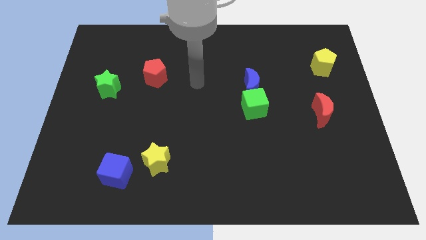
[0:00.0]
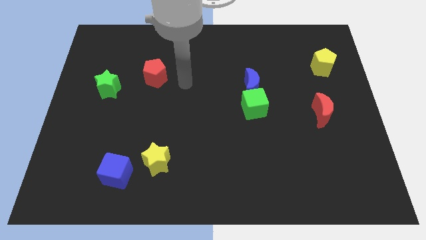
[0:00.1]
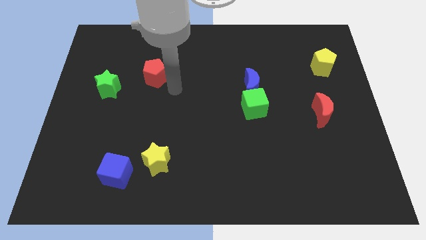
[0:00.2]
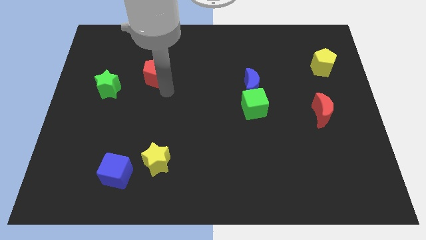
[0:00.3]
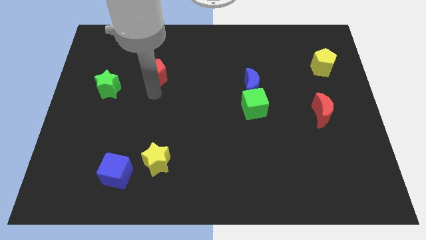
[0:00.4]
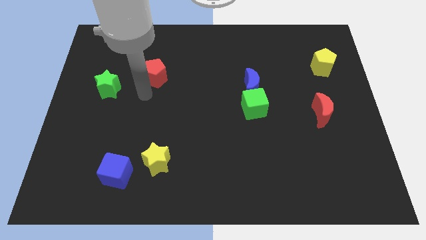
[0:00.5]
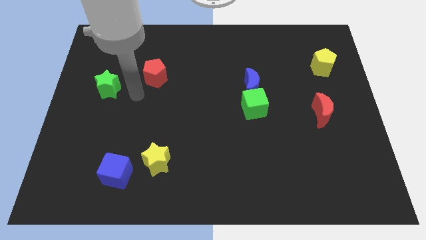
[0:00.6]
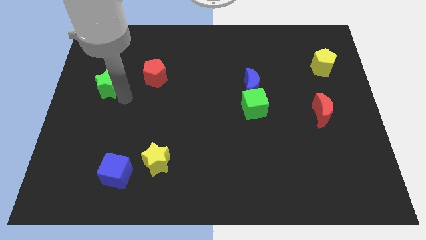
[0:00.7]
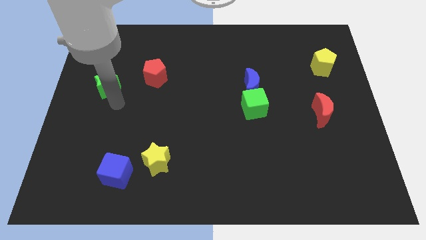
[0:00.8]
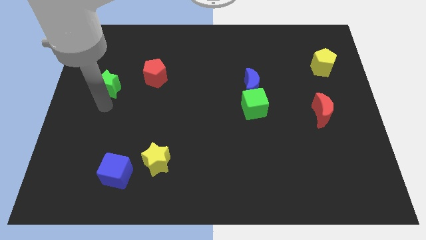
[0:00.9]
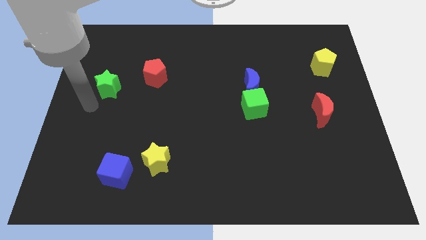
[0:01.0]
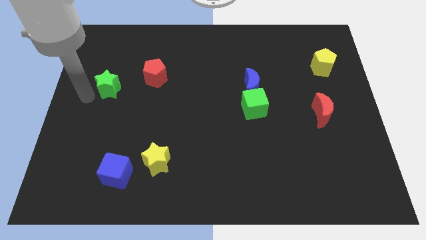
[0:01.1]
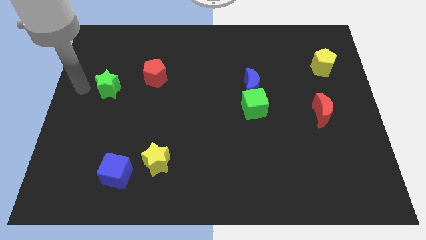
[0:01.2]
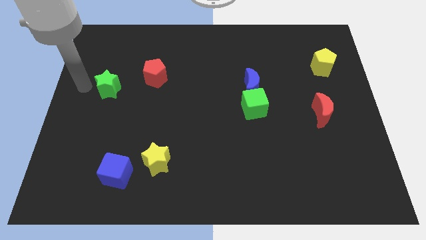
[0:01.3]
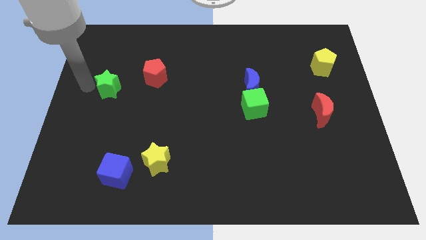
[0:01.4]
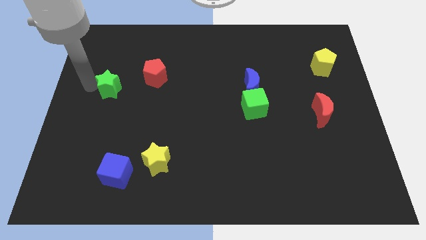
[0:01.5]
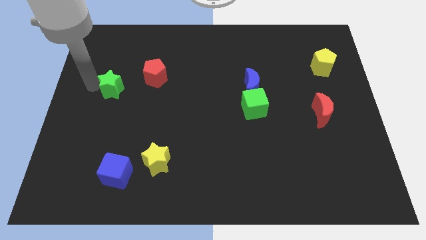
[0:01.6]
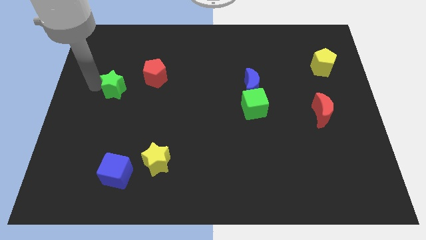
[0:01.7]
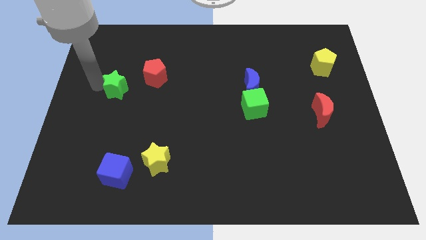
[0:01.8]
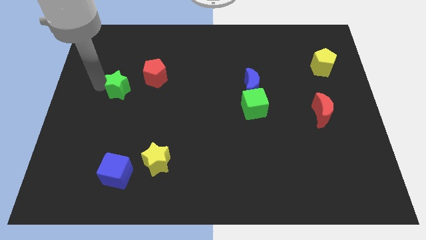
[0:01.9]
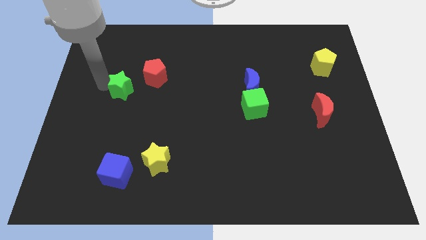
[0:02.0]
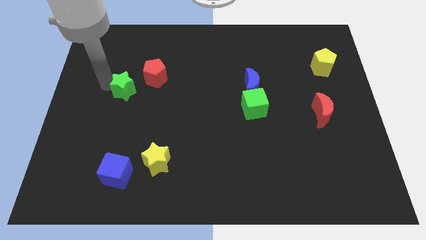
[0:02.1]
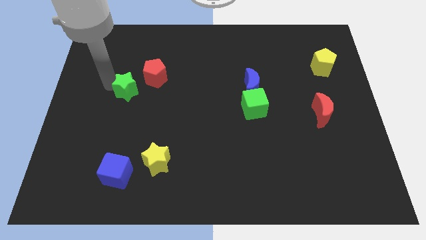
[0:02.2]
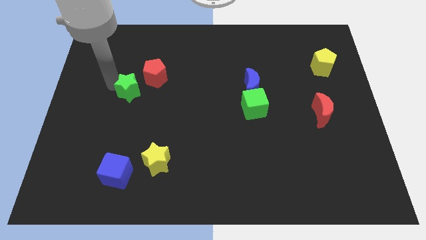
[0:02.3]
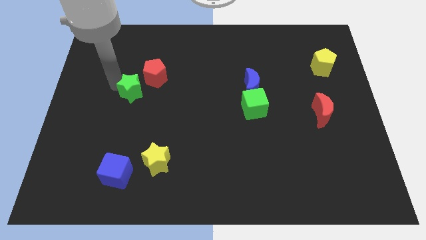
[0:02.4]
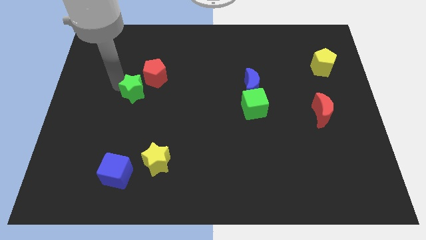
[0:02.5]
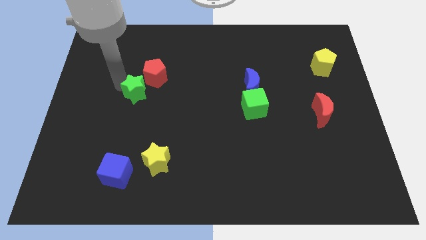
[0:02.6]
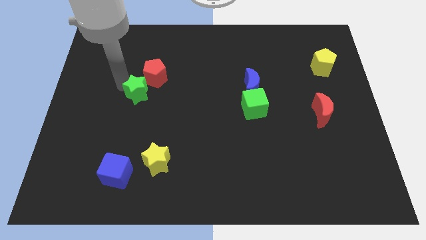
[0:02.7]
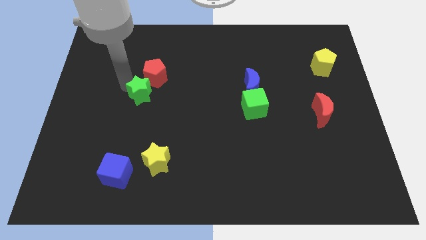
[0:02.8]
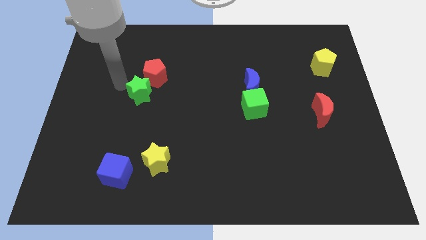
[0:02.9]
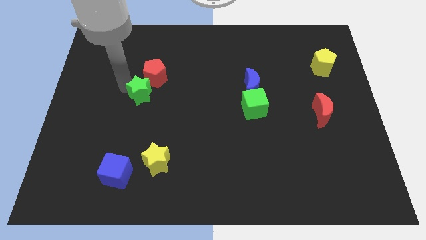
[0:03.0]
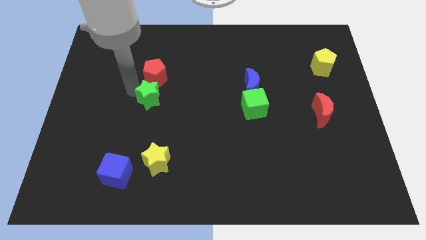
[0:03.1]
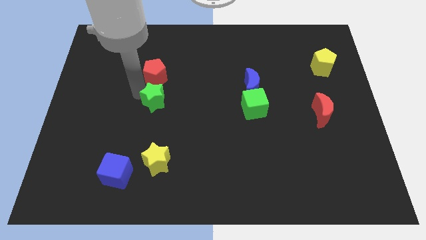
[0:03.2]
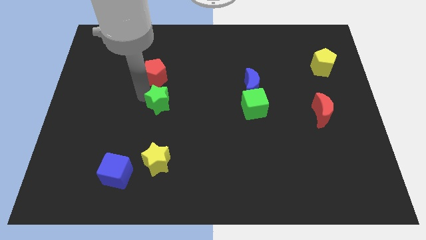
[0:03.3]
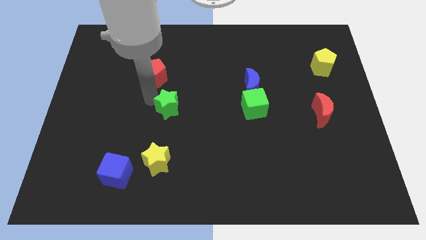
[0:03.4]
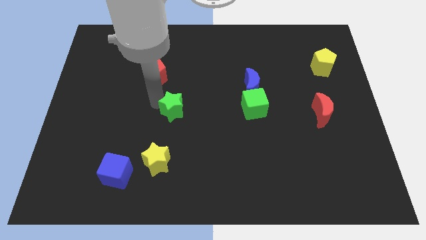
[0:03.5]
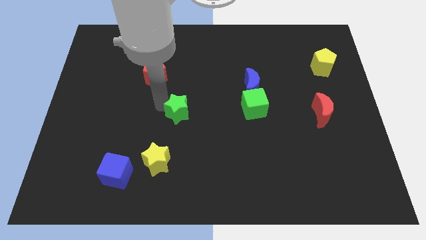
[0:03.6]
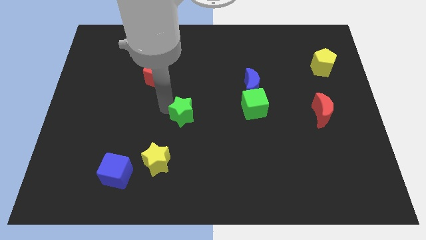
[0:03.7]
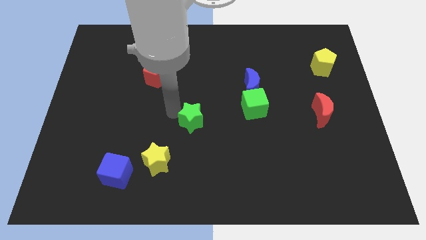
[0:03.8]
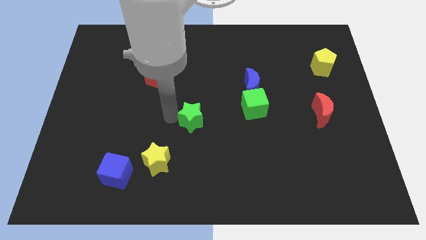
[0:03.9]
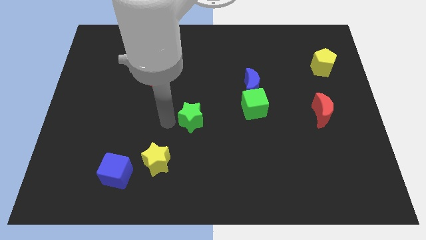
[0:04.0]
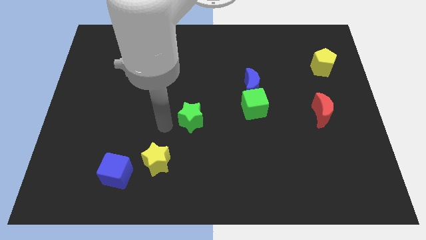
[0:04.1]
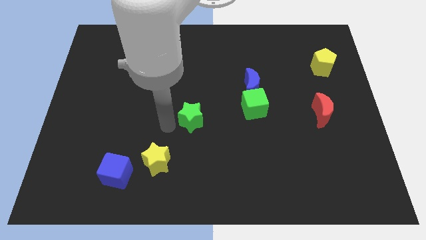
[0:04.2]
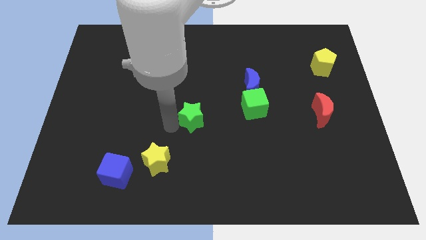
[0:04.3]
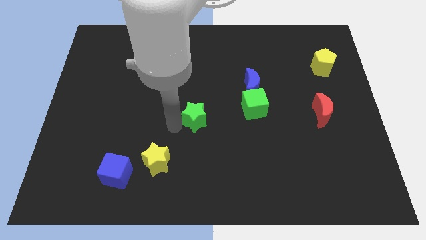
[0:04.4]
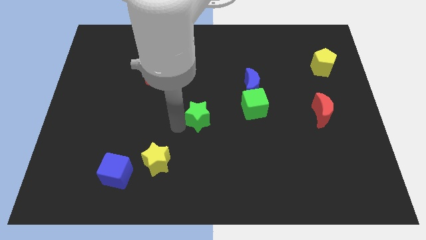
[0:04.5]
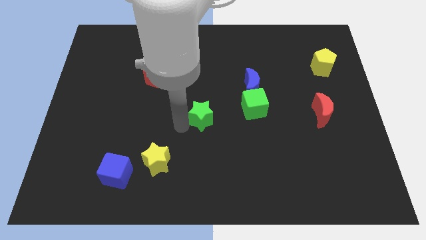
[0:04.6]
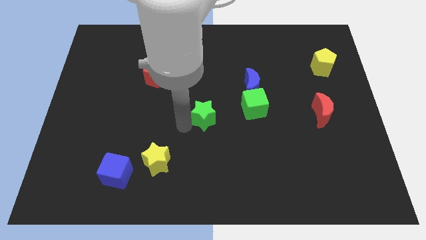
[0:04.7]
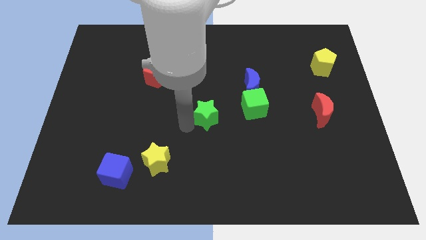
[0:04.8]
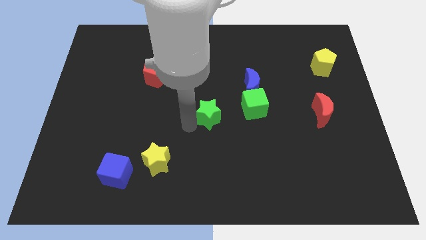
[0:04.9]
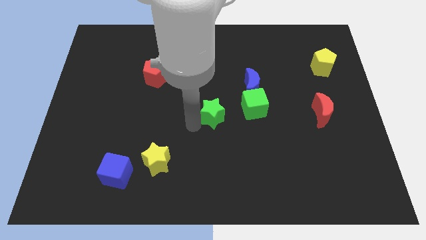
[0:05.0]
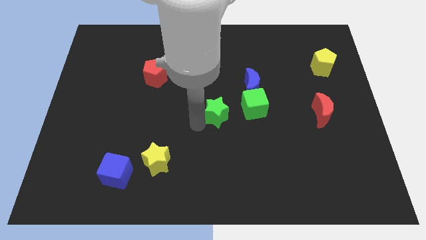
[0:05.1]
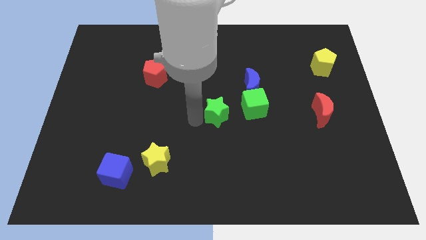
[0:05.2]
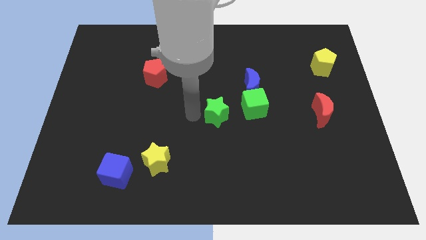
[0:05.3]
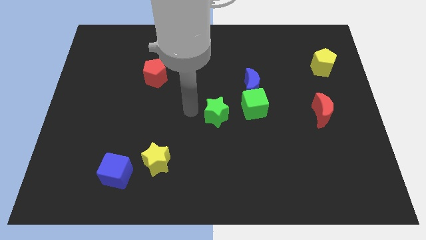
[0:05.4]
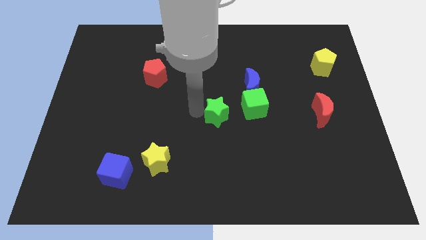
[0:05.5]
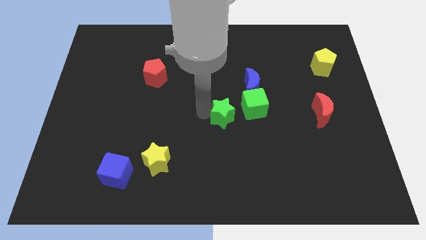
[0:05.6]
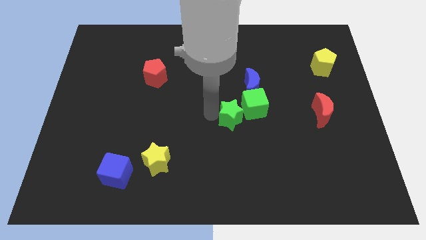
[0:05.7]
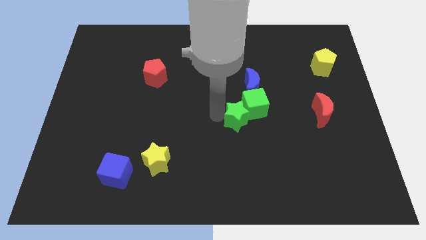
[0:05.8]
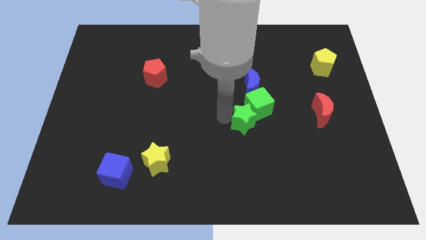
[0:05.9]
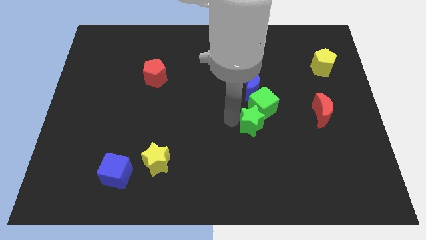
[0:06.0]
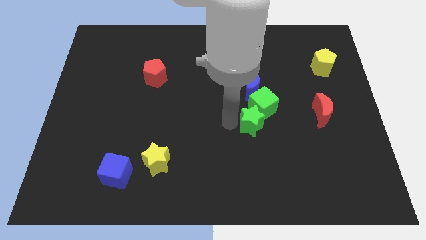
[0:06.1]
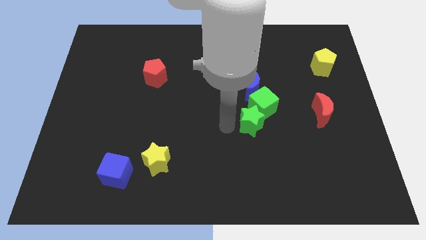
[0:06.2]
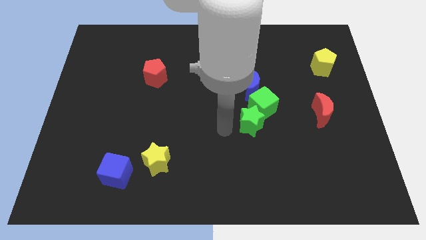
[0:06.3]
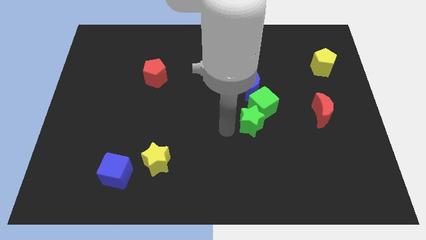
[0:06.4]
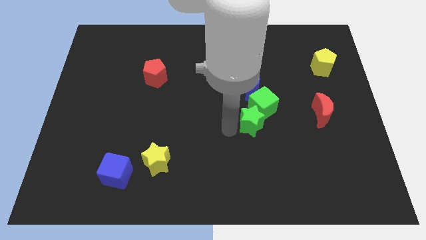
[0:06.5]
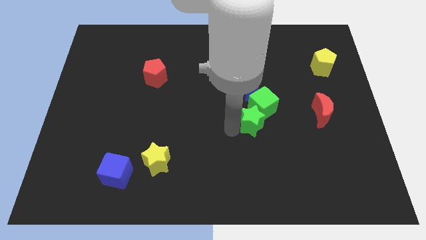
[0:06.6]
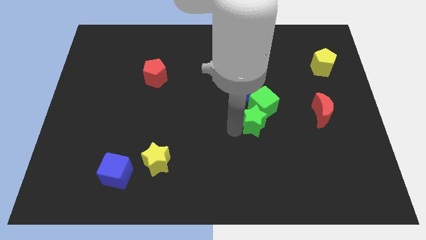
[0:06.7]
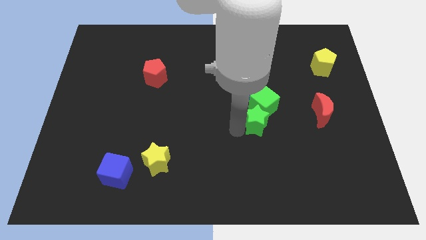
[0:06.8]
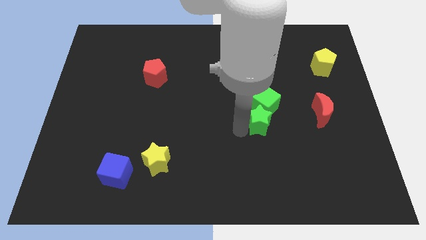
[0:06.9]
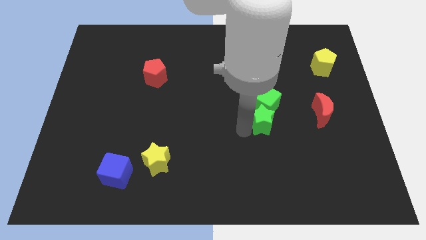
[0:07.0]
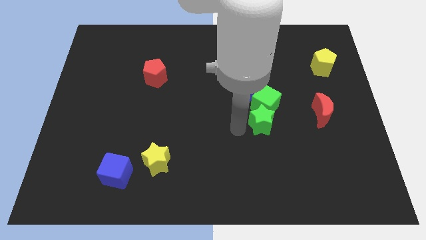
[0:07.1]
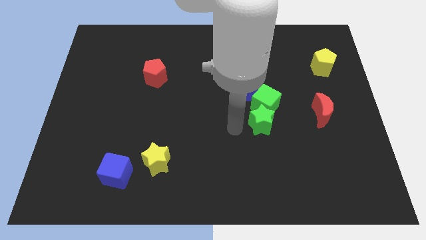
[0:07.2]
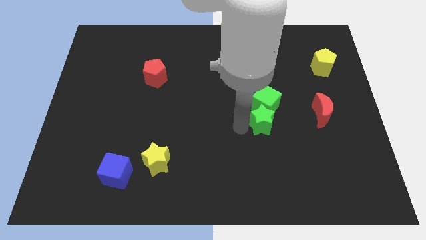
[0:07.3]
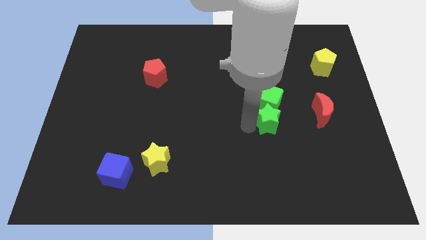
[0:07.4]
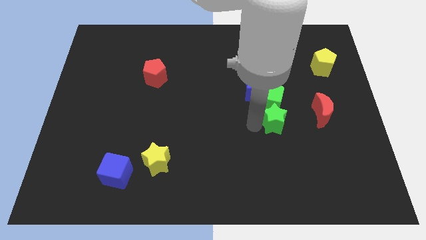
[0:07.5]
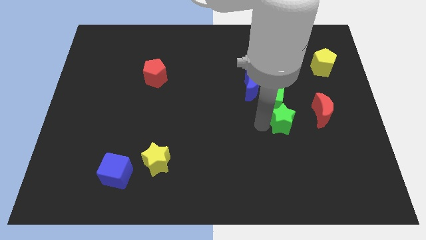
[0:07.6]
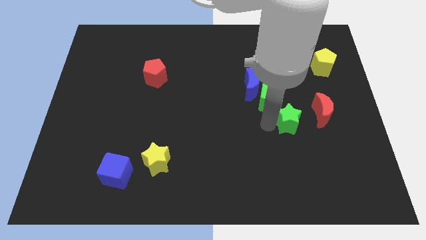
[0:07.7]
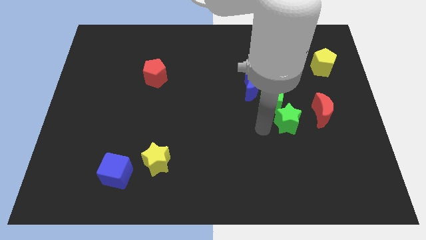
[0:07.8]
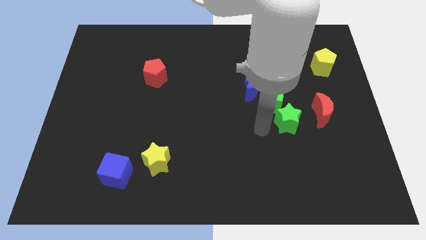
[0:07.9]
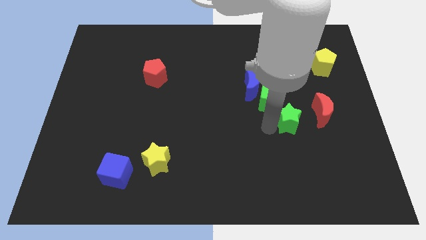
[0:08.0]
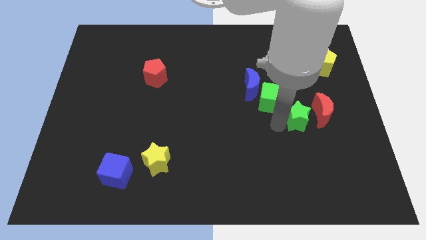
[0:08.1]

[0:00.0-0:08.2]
push the green star next to the red moon
